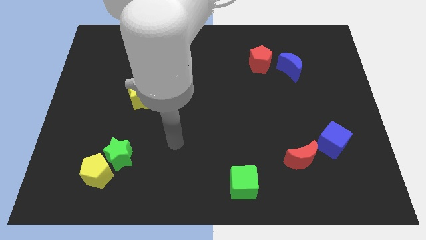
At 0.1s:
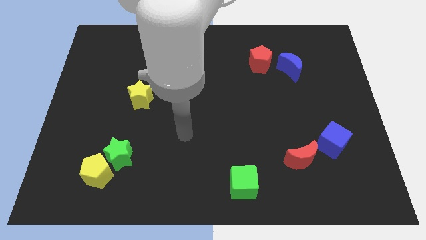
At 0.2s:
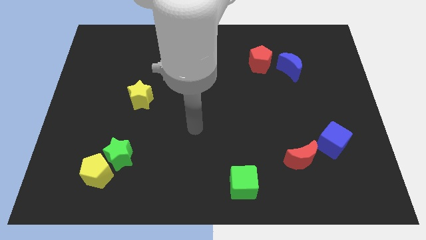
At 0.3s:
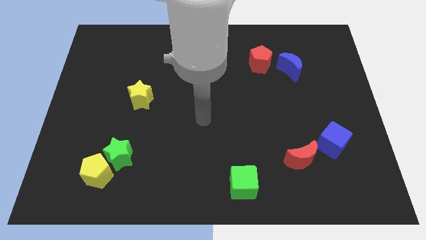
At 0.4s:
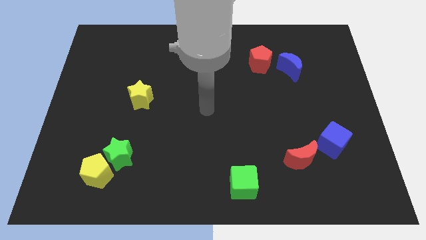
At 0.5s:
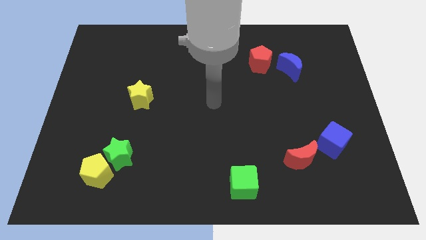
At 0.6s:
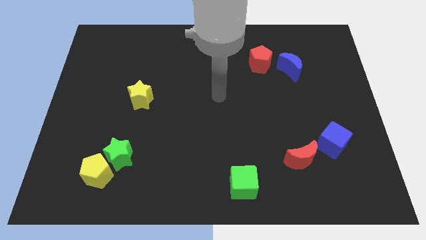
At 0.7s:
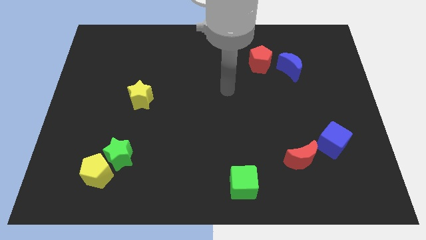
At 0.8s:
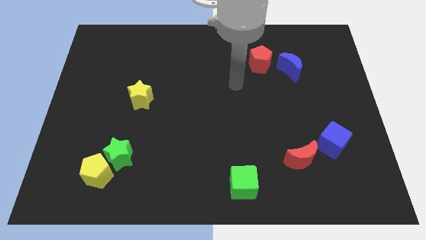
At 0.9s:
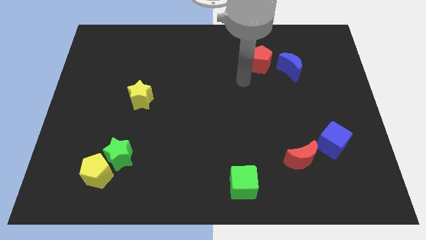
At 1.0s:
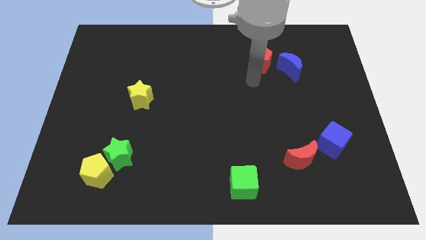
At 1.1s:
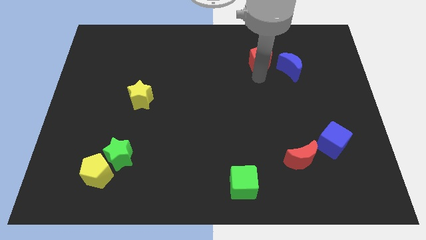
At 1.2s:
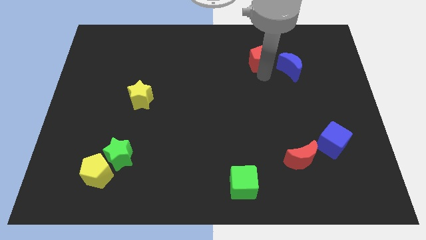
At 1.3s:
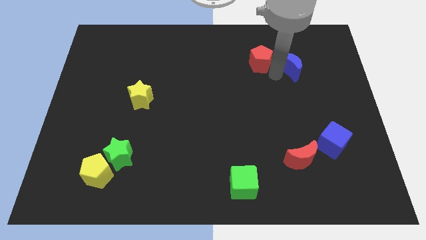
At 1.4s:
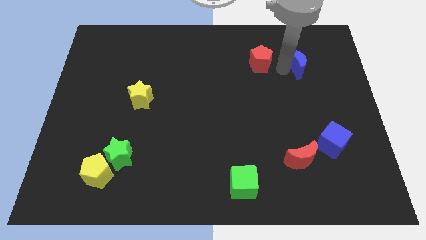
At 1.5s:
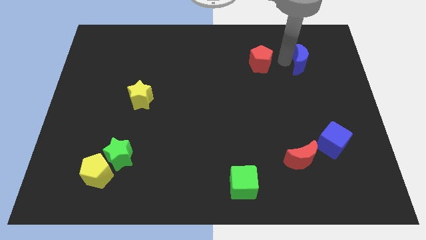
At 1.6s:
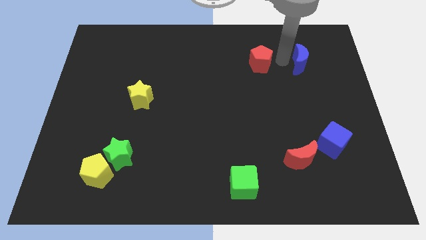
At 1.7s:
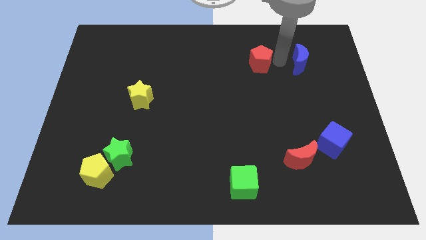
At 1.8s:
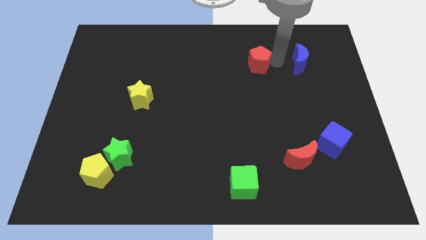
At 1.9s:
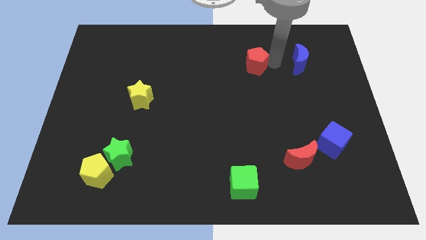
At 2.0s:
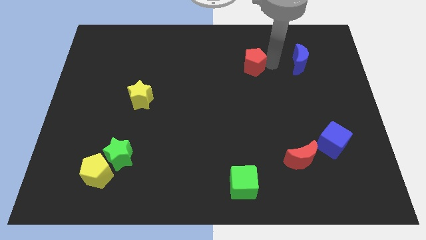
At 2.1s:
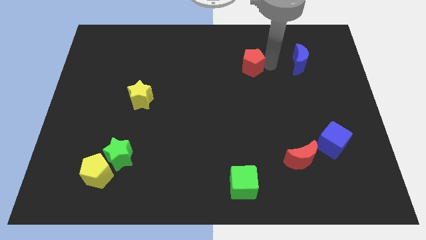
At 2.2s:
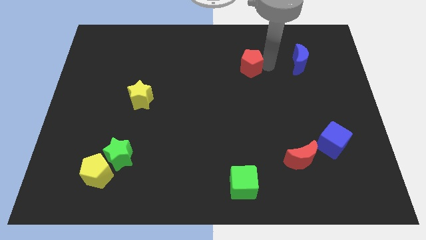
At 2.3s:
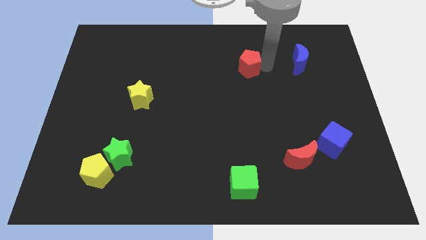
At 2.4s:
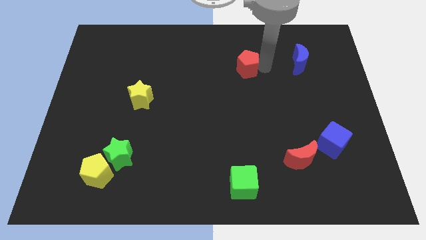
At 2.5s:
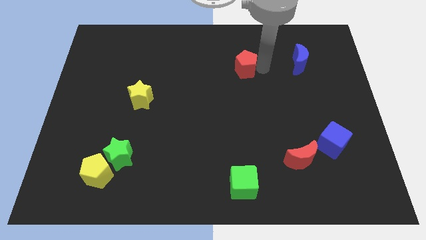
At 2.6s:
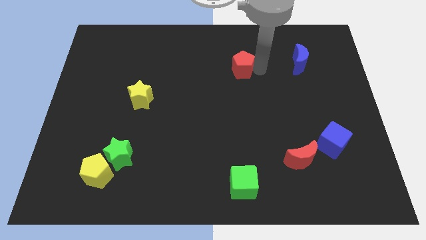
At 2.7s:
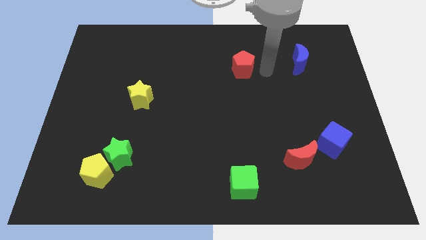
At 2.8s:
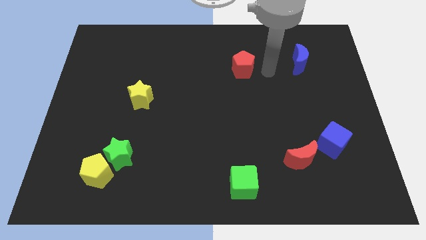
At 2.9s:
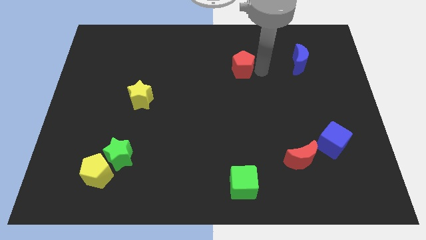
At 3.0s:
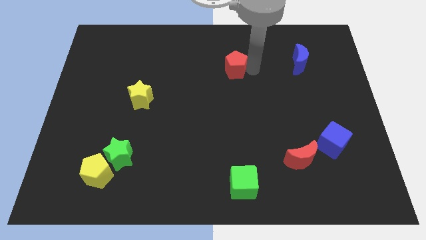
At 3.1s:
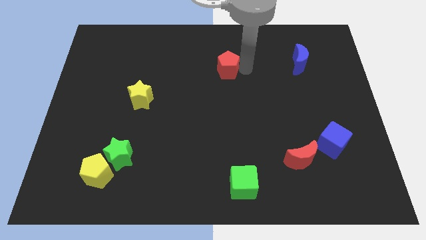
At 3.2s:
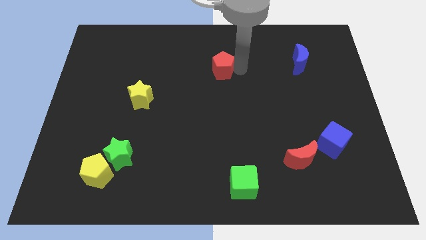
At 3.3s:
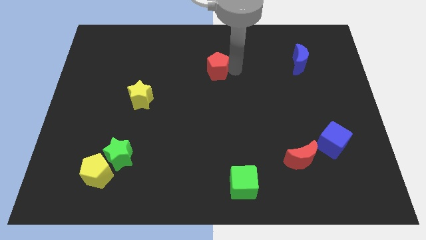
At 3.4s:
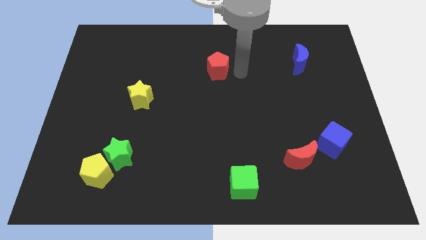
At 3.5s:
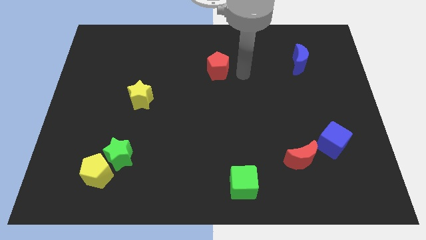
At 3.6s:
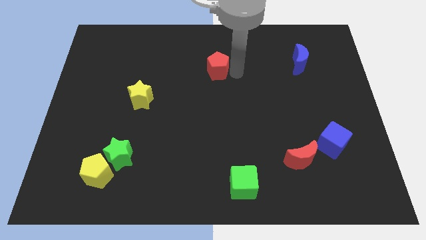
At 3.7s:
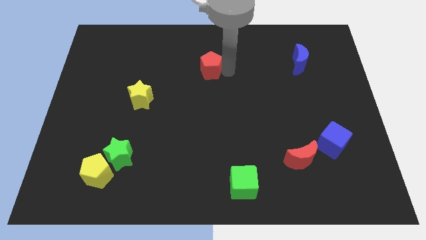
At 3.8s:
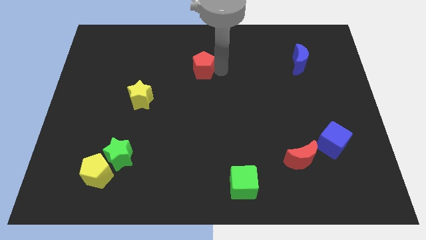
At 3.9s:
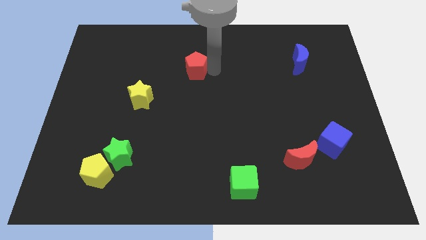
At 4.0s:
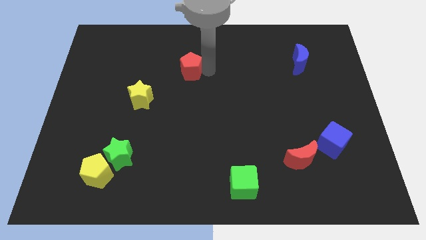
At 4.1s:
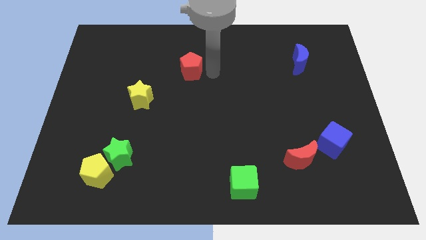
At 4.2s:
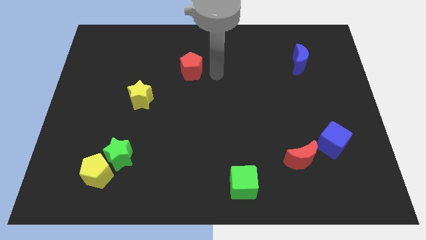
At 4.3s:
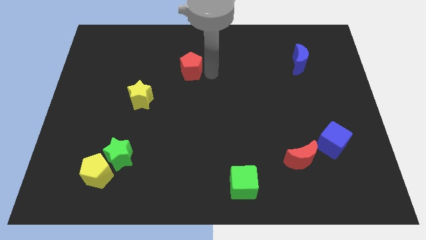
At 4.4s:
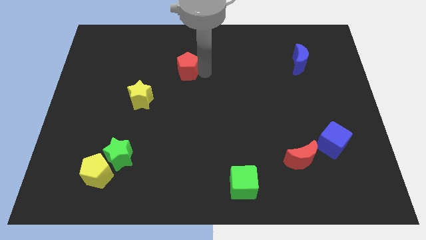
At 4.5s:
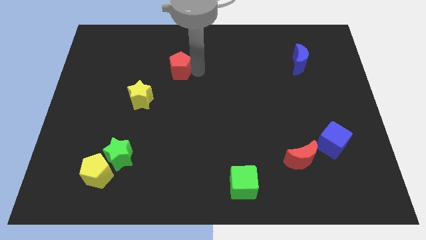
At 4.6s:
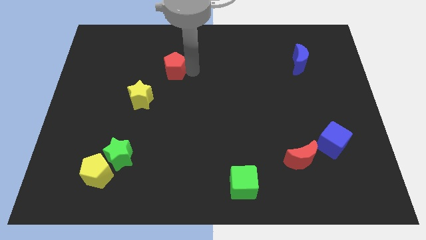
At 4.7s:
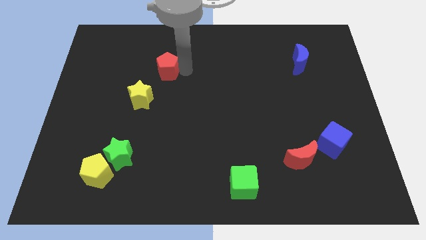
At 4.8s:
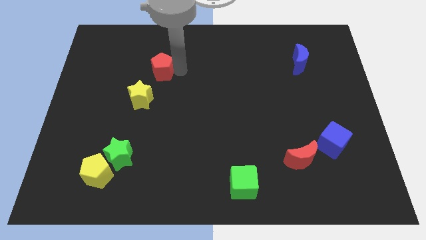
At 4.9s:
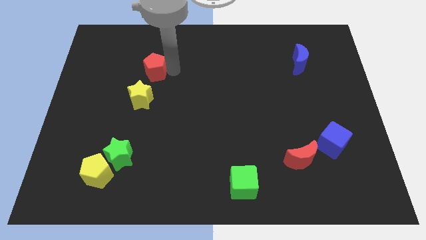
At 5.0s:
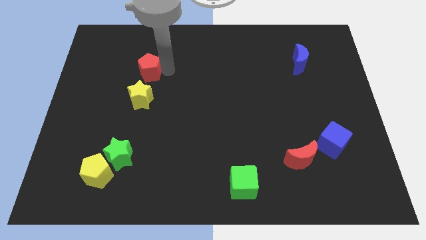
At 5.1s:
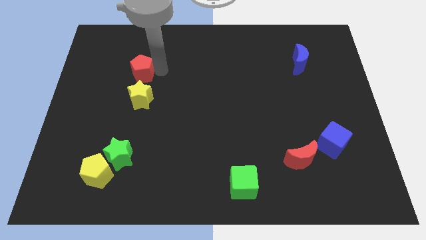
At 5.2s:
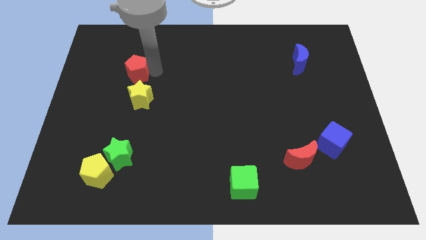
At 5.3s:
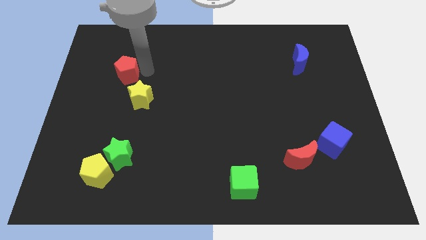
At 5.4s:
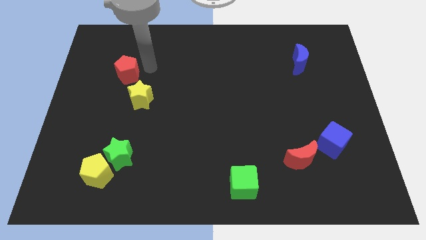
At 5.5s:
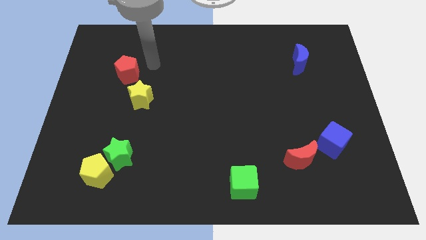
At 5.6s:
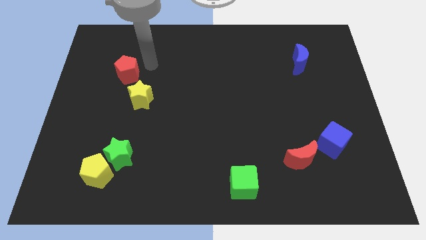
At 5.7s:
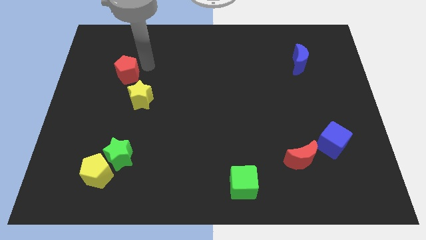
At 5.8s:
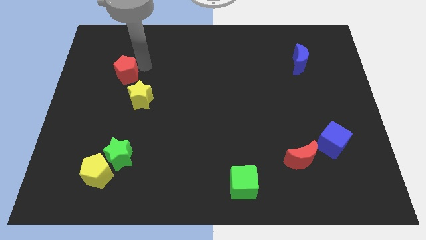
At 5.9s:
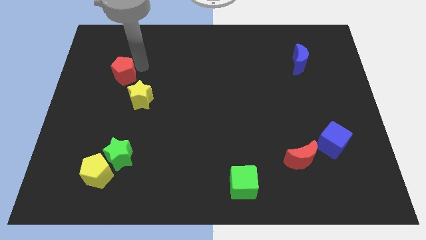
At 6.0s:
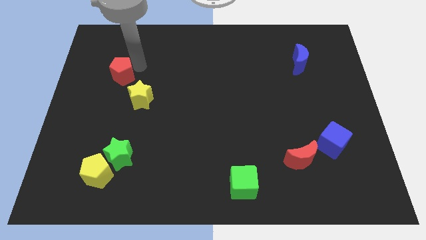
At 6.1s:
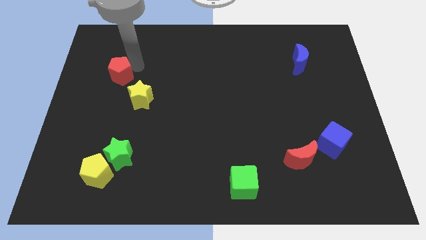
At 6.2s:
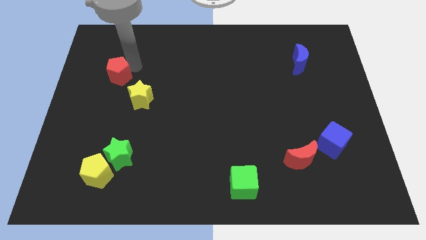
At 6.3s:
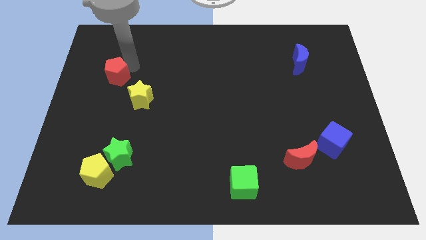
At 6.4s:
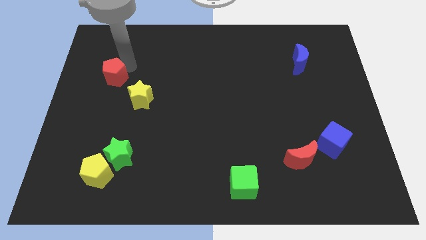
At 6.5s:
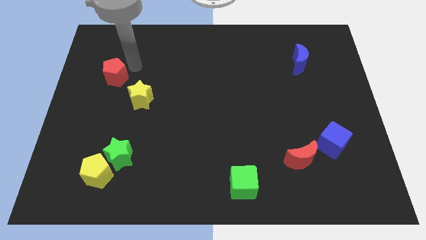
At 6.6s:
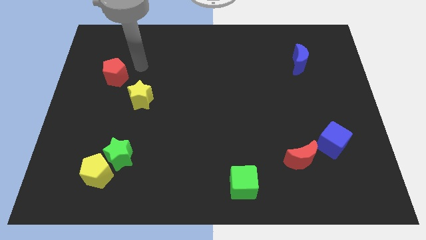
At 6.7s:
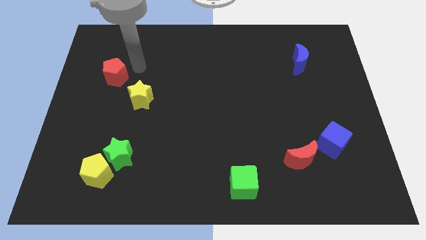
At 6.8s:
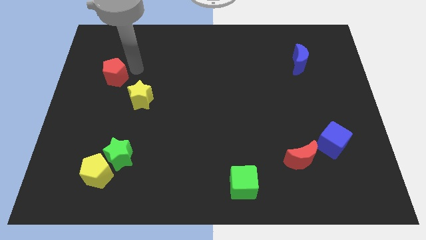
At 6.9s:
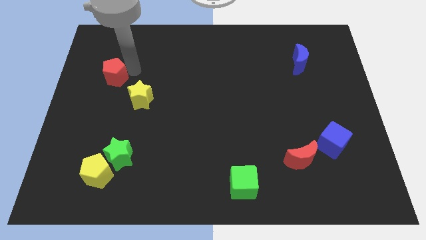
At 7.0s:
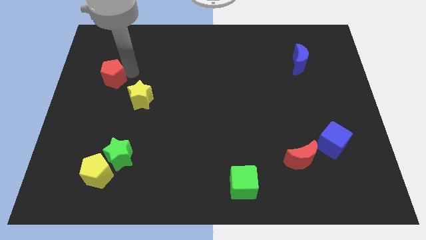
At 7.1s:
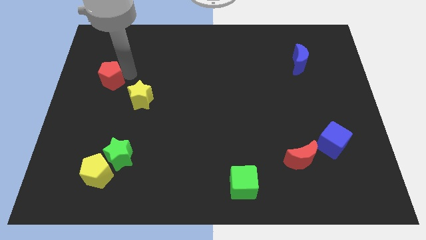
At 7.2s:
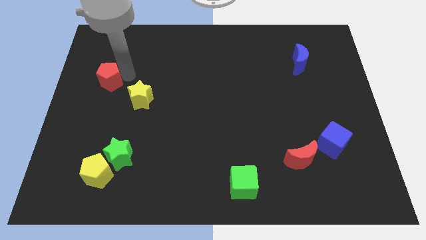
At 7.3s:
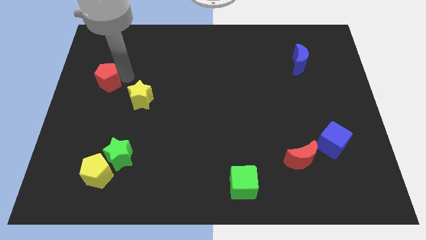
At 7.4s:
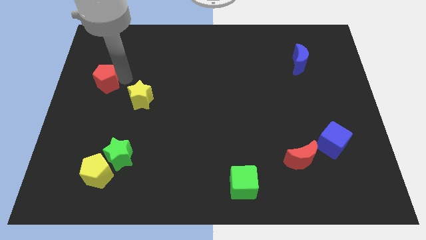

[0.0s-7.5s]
move the red pentagon to the center left
